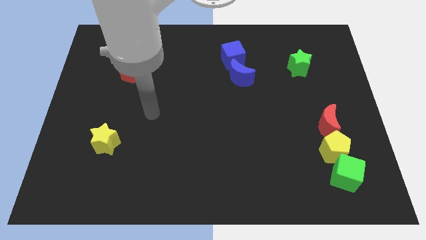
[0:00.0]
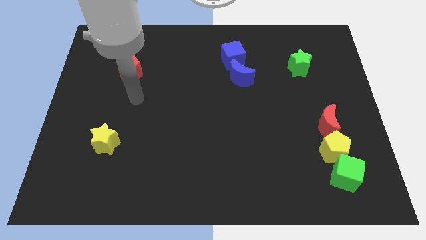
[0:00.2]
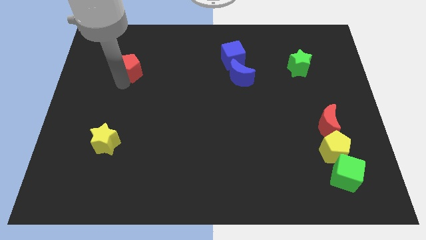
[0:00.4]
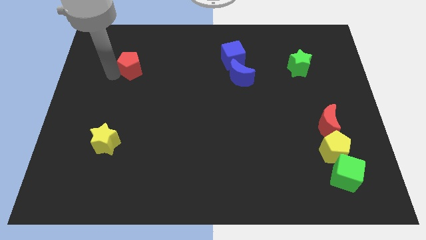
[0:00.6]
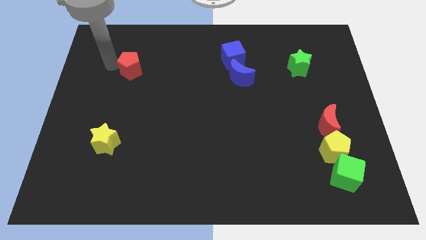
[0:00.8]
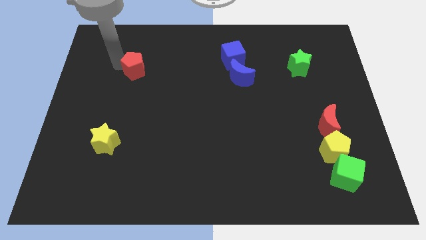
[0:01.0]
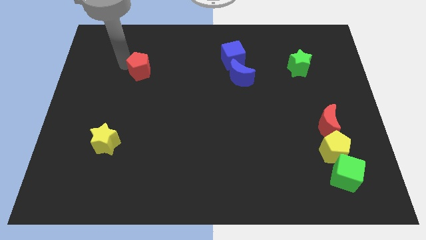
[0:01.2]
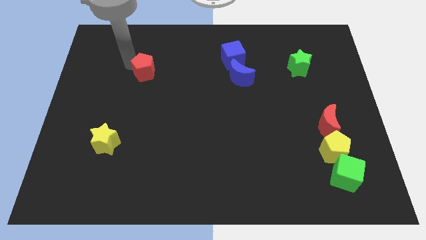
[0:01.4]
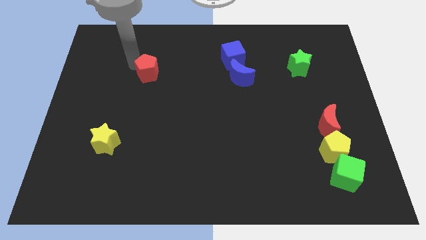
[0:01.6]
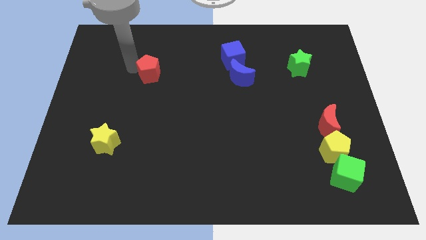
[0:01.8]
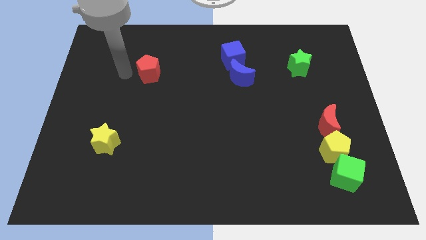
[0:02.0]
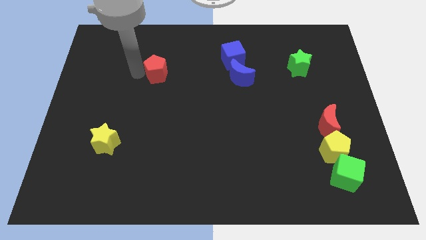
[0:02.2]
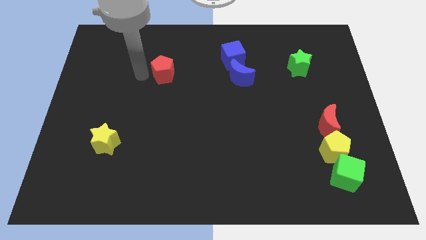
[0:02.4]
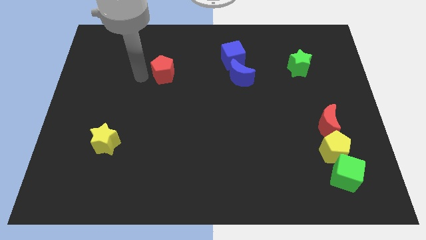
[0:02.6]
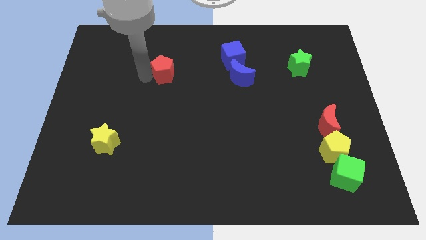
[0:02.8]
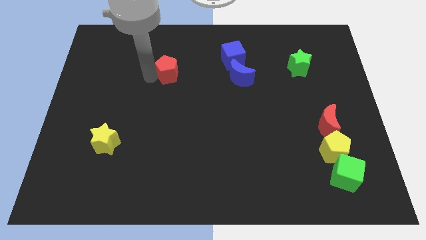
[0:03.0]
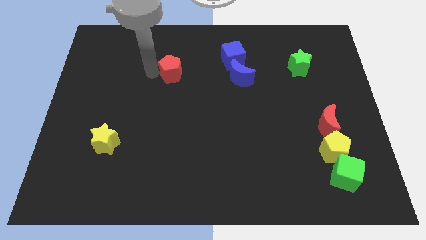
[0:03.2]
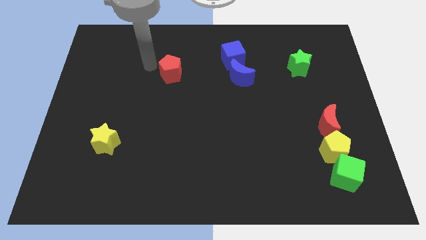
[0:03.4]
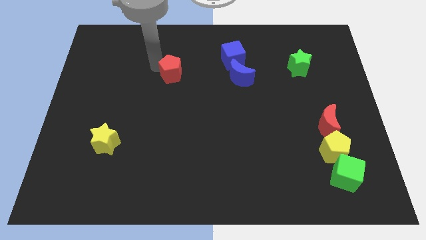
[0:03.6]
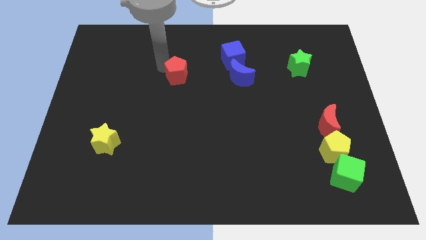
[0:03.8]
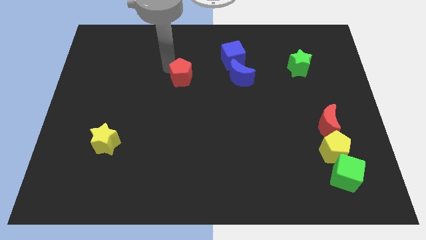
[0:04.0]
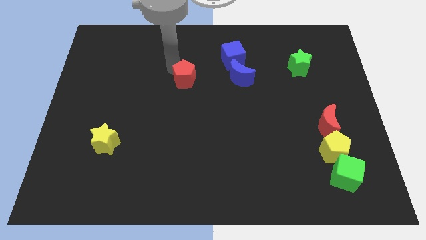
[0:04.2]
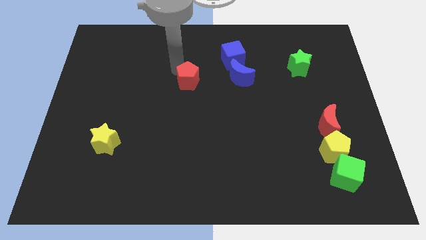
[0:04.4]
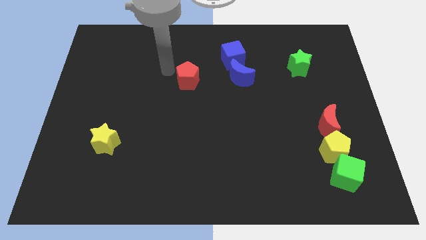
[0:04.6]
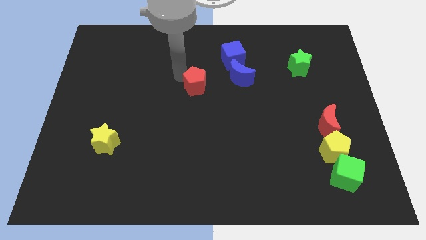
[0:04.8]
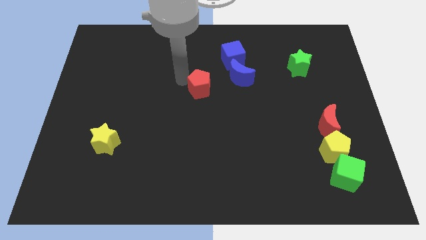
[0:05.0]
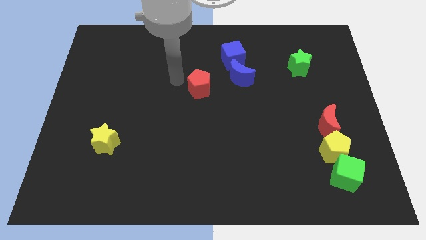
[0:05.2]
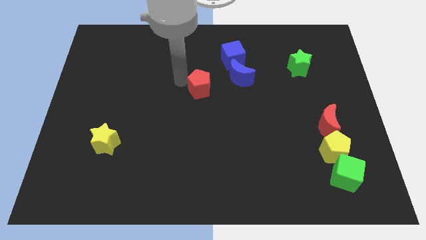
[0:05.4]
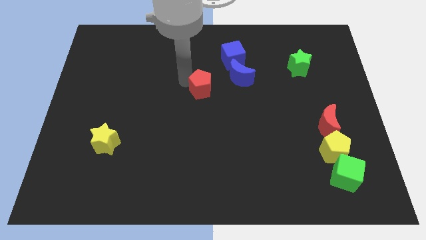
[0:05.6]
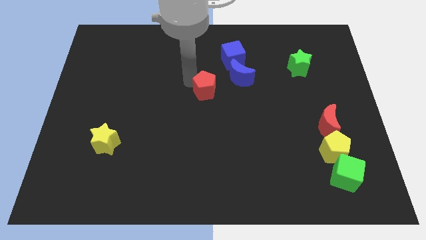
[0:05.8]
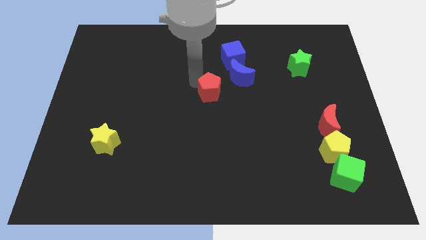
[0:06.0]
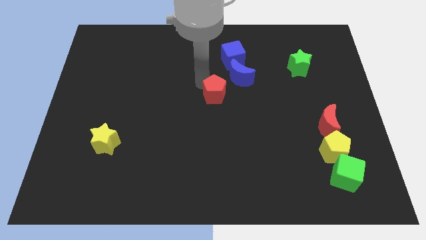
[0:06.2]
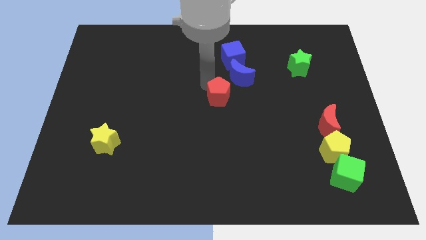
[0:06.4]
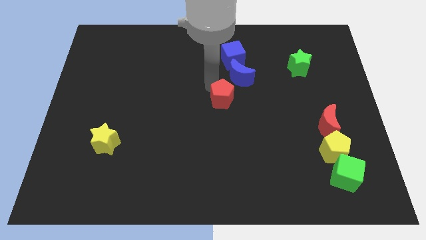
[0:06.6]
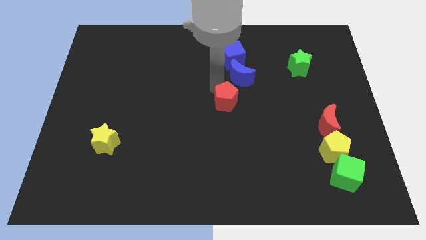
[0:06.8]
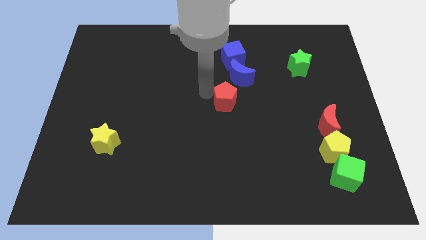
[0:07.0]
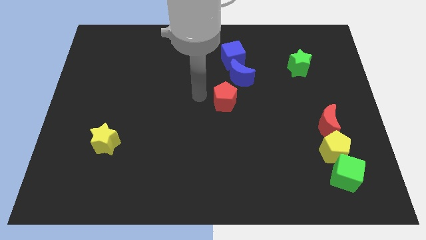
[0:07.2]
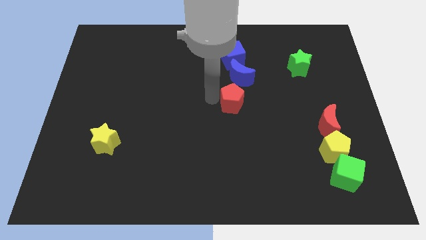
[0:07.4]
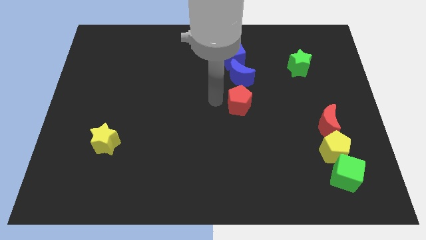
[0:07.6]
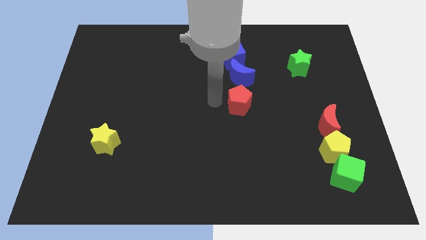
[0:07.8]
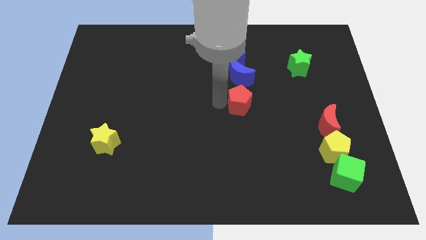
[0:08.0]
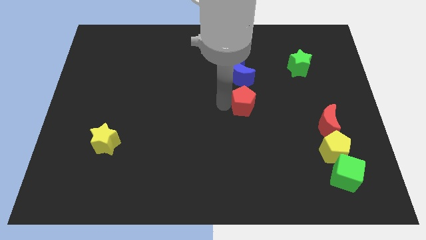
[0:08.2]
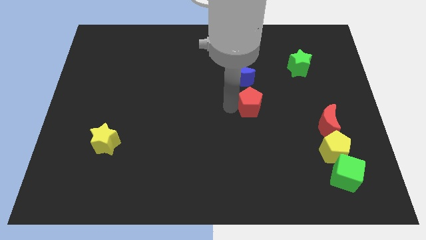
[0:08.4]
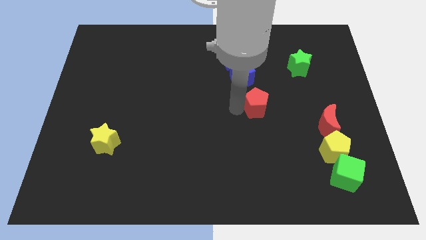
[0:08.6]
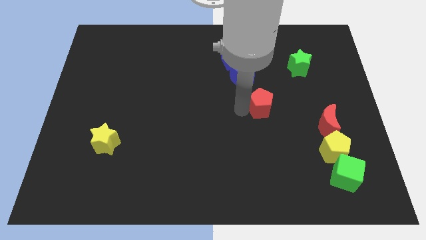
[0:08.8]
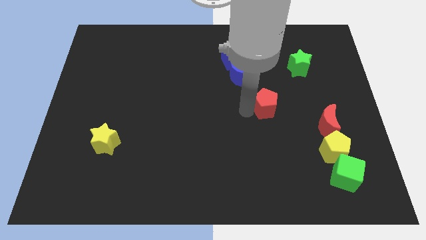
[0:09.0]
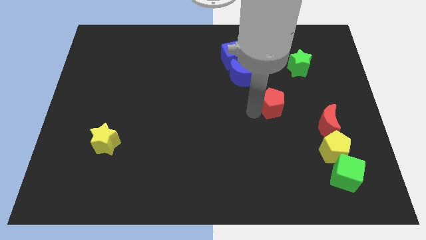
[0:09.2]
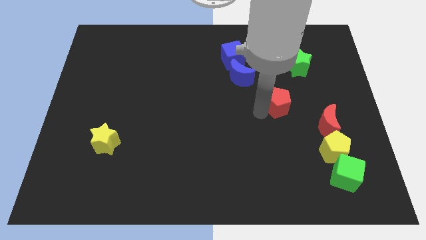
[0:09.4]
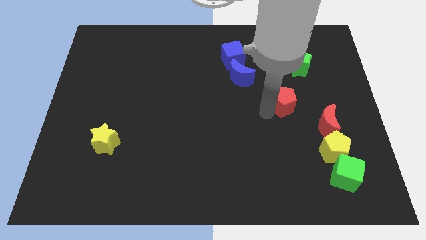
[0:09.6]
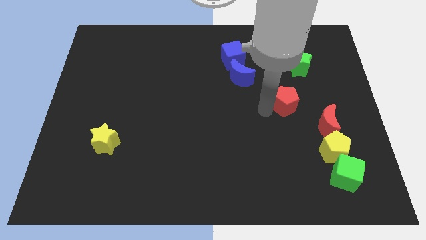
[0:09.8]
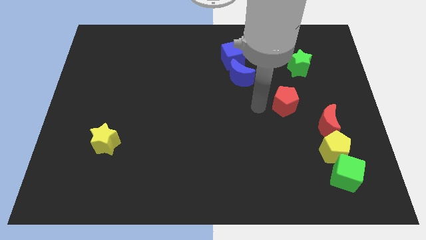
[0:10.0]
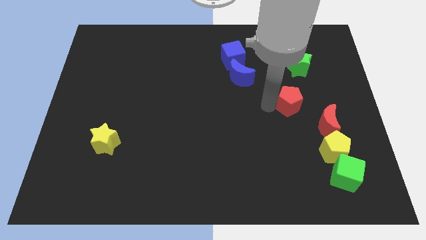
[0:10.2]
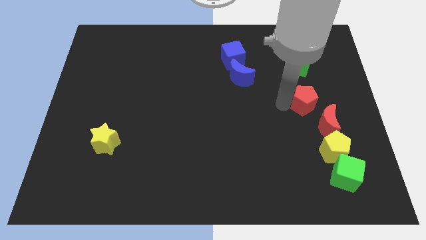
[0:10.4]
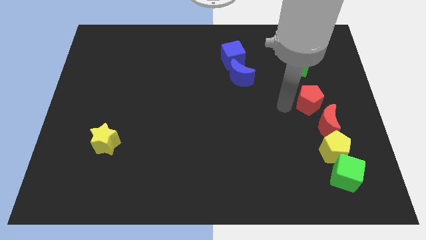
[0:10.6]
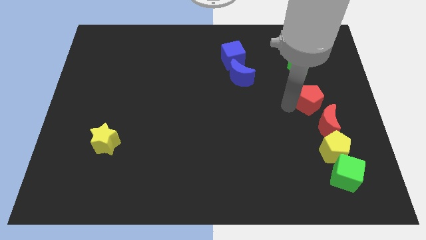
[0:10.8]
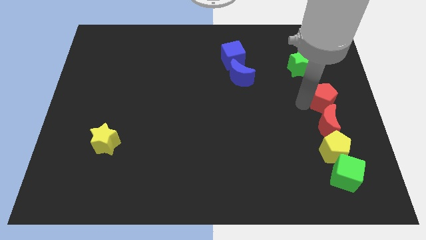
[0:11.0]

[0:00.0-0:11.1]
slide the red pentagon to the right side of the board
